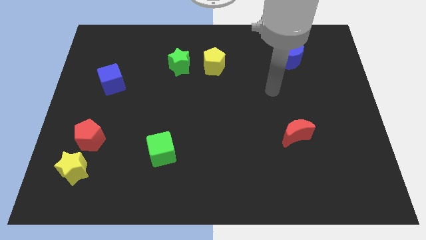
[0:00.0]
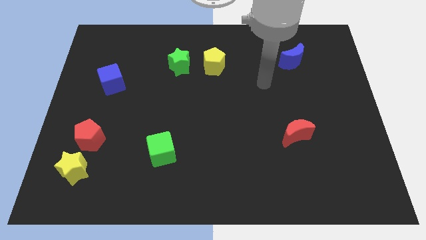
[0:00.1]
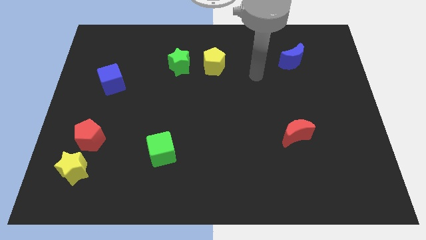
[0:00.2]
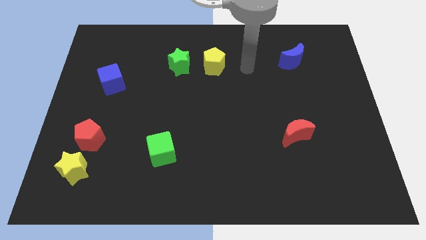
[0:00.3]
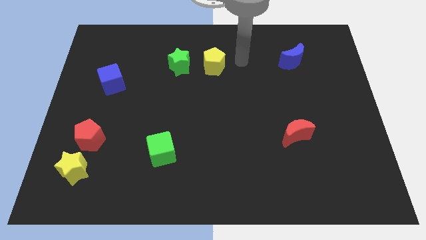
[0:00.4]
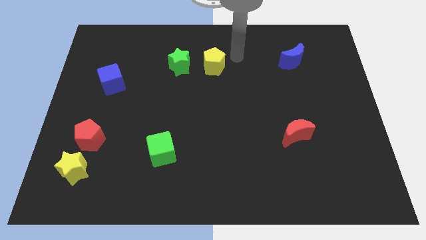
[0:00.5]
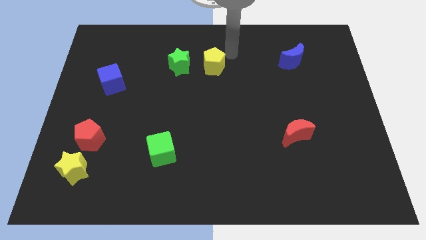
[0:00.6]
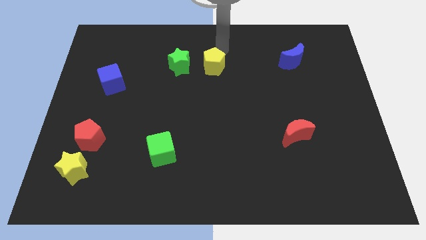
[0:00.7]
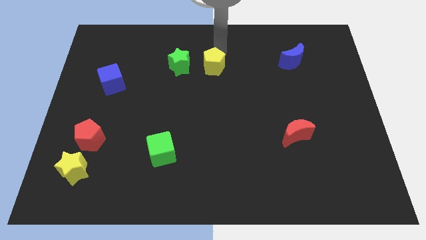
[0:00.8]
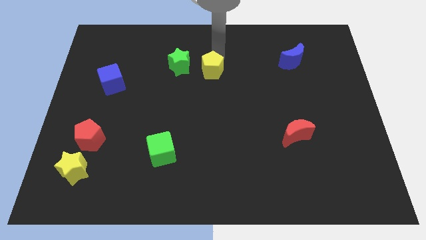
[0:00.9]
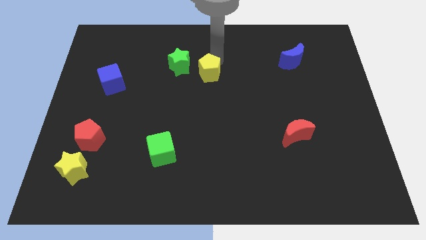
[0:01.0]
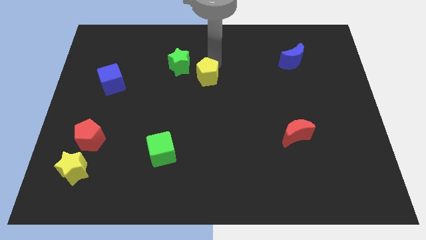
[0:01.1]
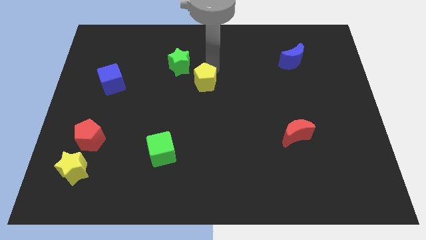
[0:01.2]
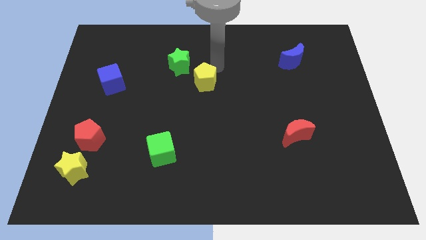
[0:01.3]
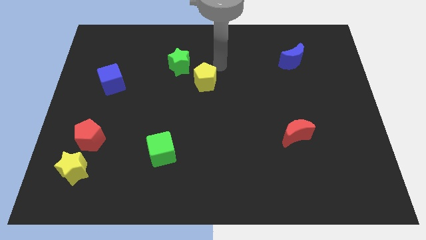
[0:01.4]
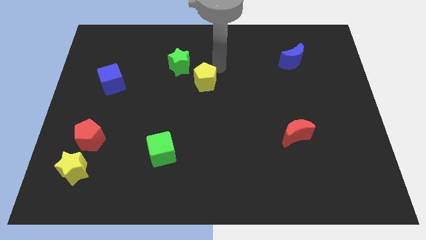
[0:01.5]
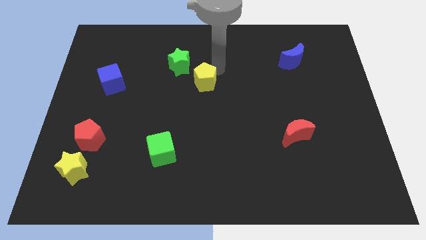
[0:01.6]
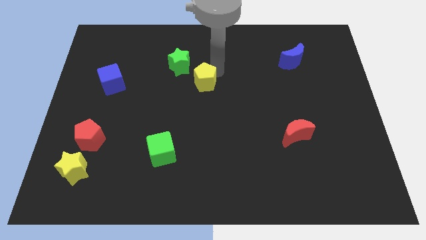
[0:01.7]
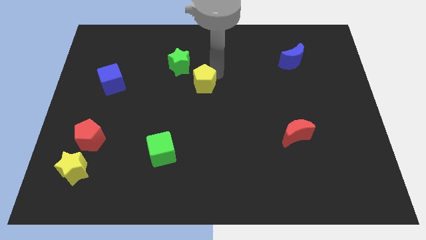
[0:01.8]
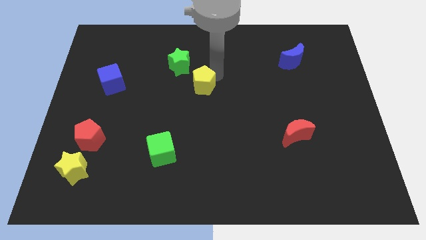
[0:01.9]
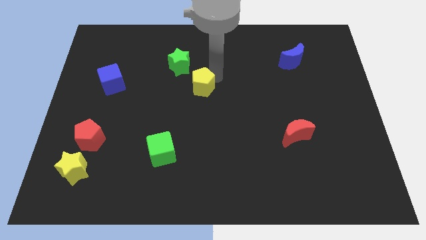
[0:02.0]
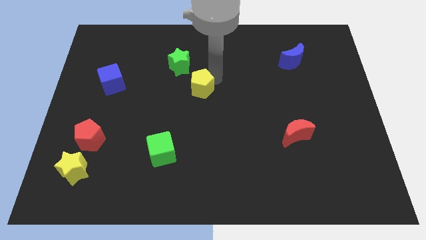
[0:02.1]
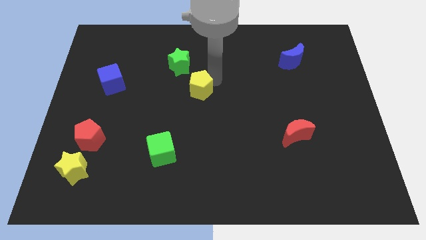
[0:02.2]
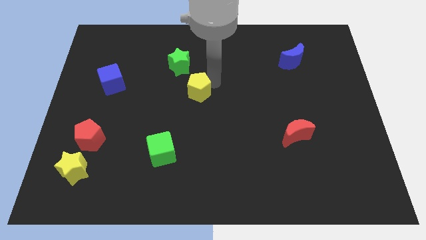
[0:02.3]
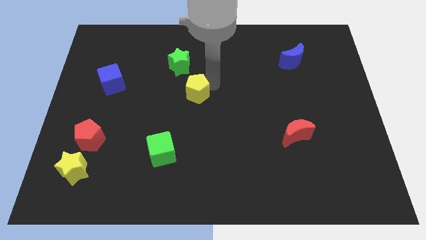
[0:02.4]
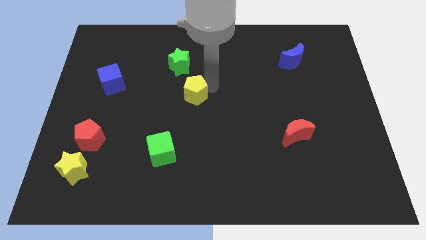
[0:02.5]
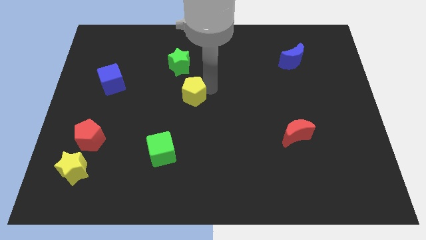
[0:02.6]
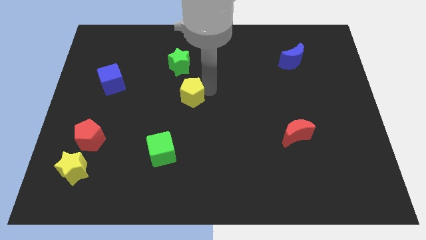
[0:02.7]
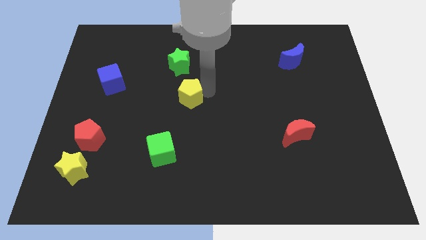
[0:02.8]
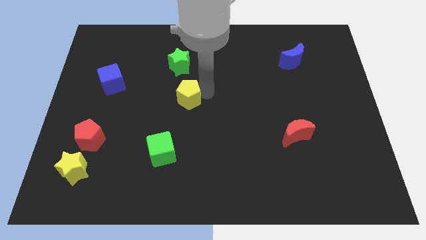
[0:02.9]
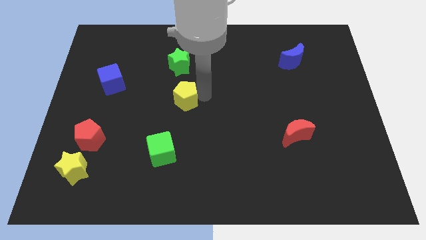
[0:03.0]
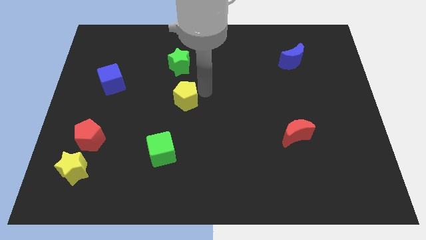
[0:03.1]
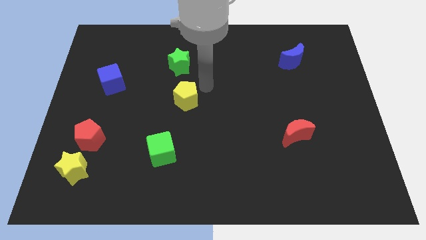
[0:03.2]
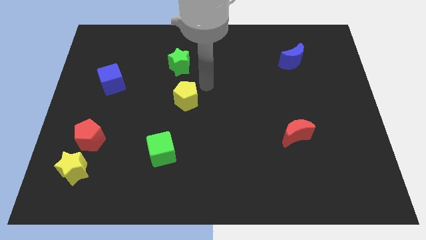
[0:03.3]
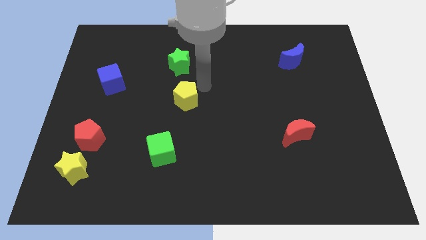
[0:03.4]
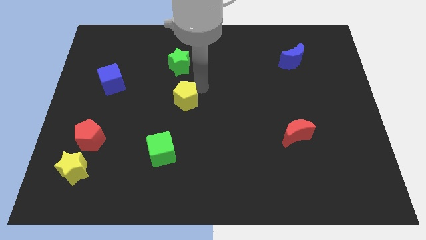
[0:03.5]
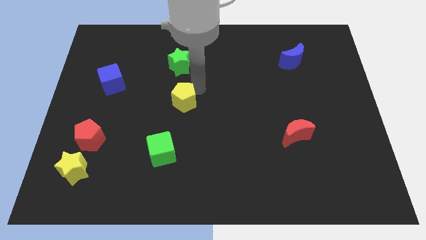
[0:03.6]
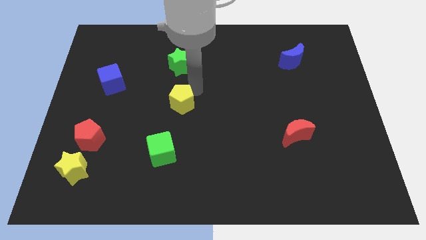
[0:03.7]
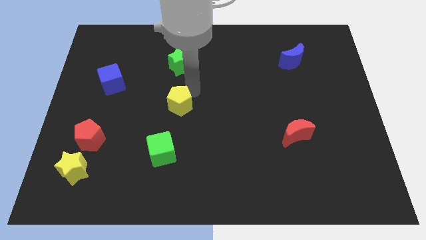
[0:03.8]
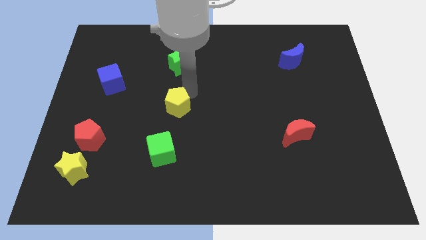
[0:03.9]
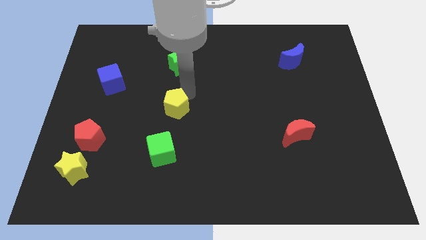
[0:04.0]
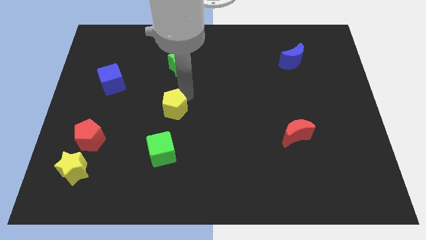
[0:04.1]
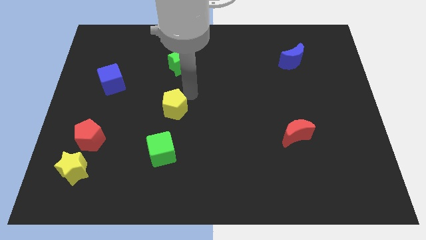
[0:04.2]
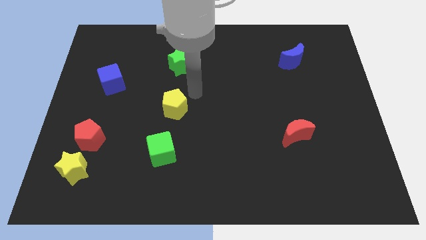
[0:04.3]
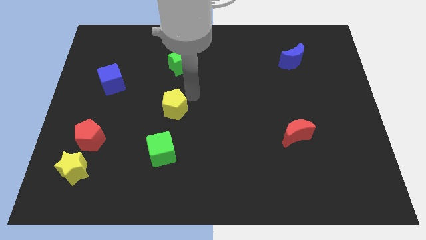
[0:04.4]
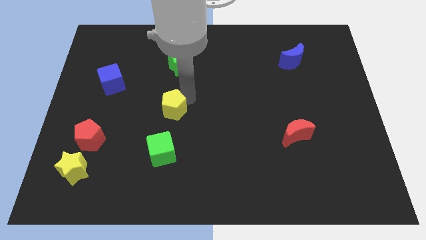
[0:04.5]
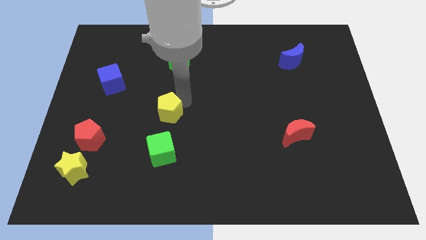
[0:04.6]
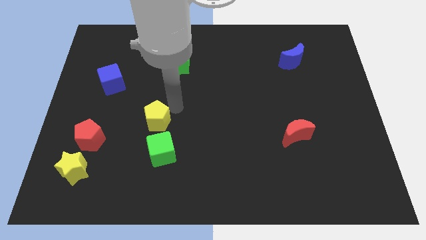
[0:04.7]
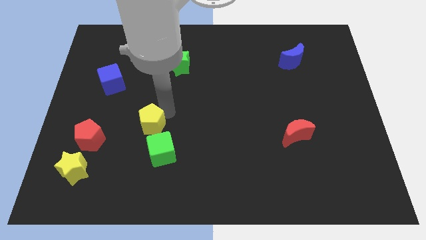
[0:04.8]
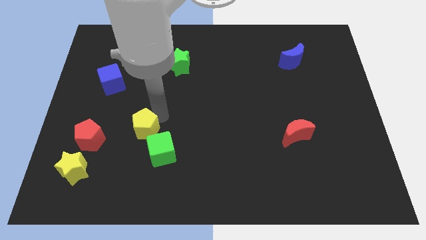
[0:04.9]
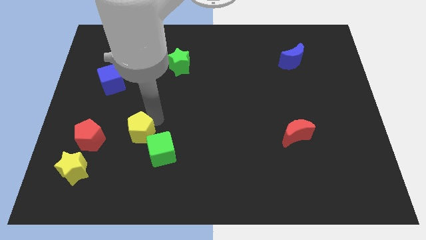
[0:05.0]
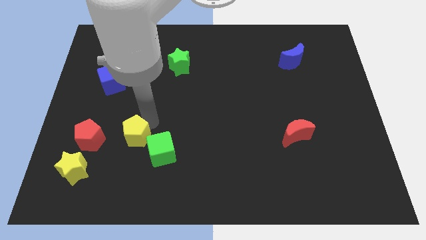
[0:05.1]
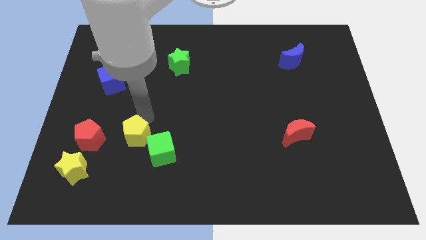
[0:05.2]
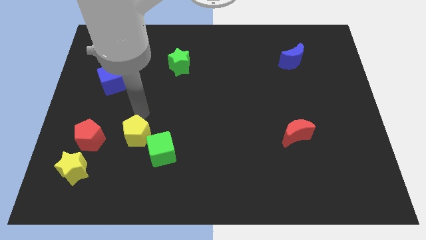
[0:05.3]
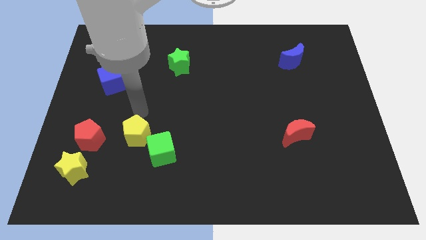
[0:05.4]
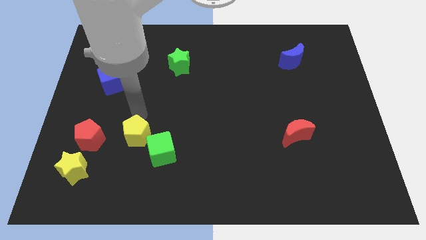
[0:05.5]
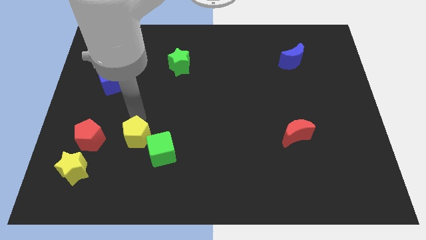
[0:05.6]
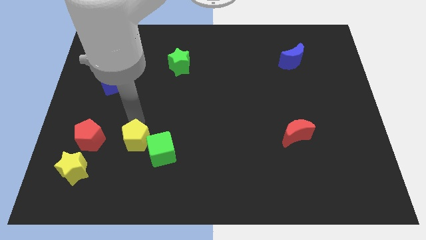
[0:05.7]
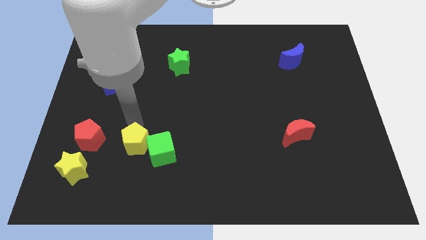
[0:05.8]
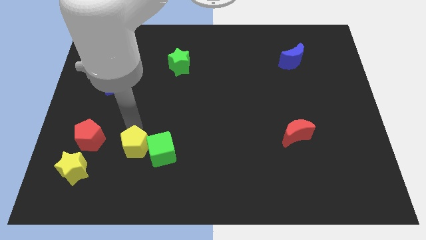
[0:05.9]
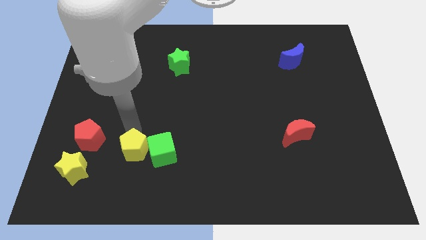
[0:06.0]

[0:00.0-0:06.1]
slide the yellow pentagon to the bottom left of the green cube
